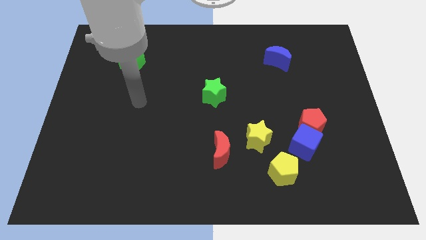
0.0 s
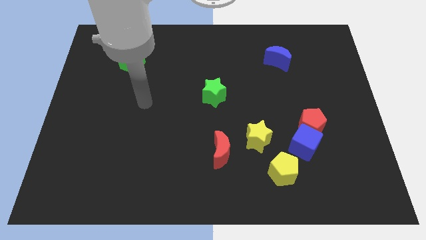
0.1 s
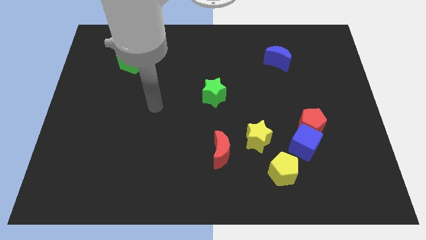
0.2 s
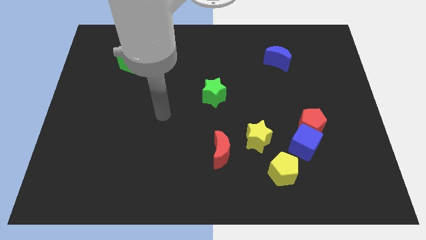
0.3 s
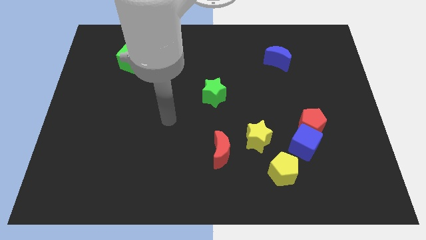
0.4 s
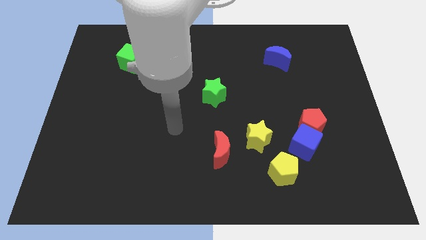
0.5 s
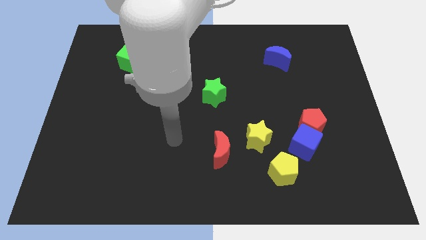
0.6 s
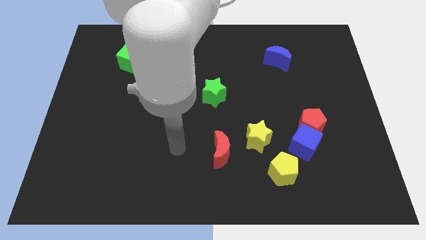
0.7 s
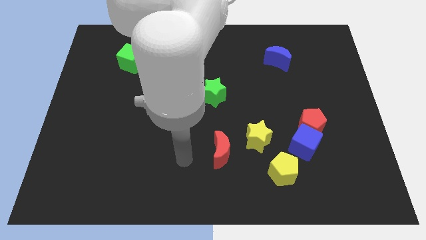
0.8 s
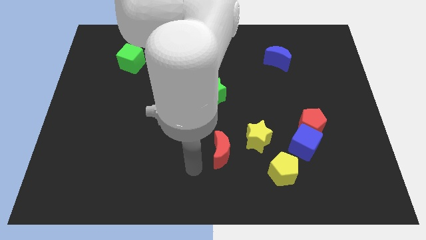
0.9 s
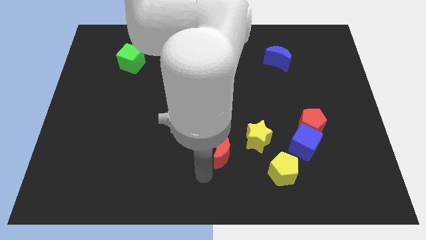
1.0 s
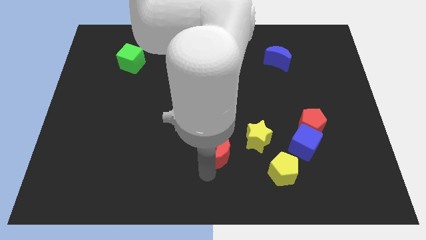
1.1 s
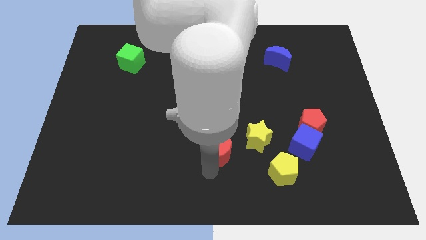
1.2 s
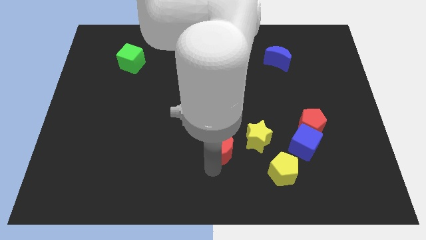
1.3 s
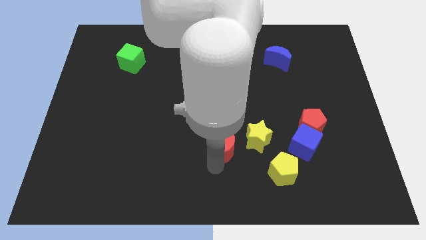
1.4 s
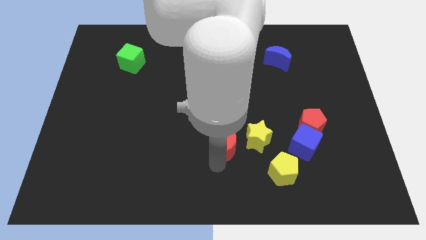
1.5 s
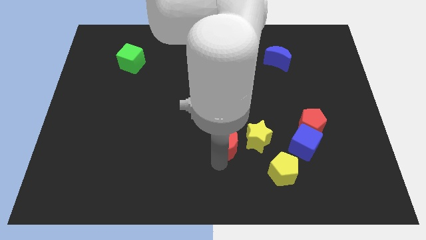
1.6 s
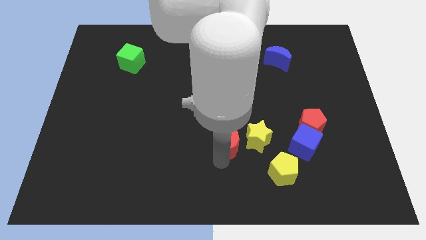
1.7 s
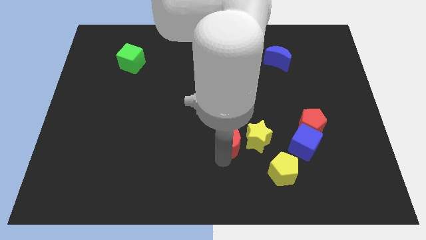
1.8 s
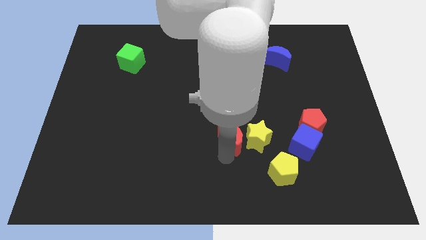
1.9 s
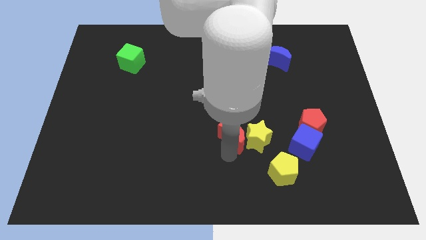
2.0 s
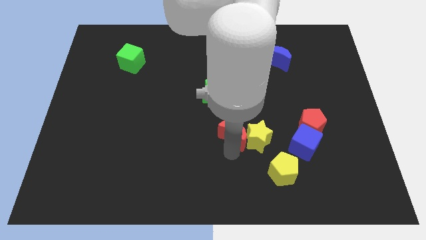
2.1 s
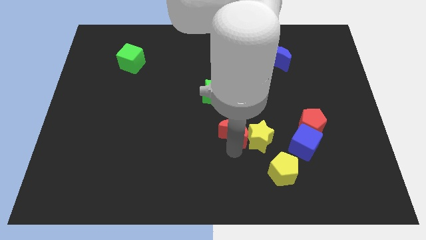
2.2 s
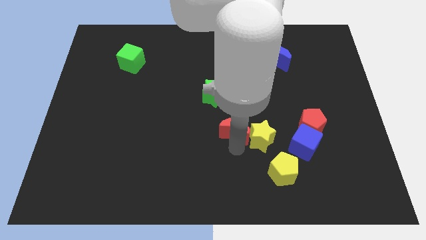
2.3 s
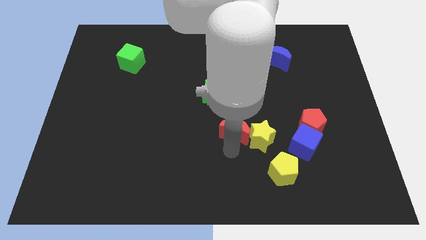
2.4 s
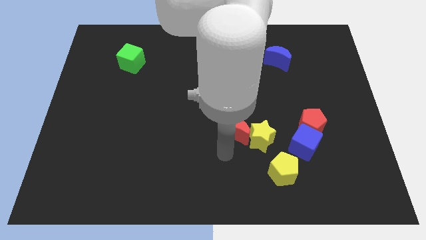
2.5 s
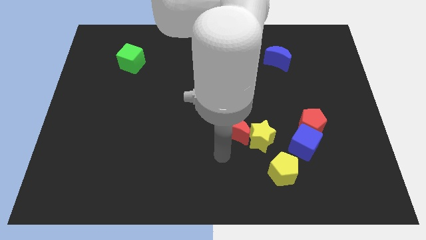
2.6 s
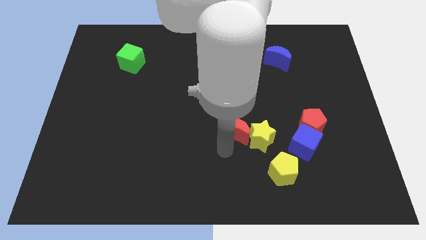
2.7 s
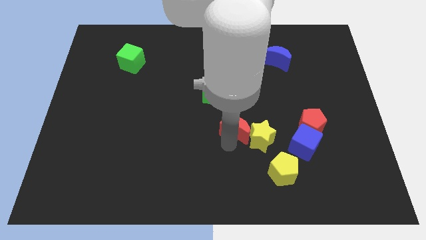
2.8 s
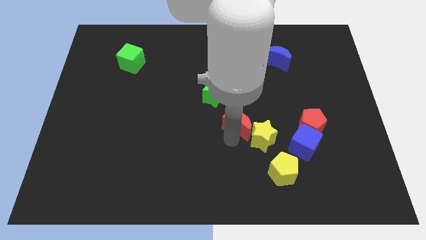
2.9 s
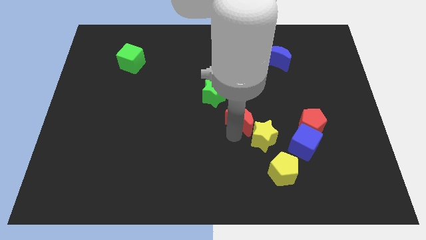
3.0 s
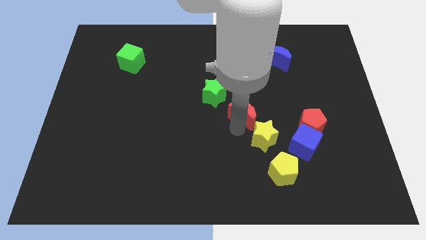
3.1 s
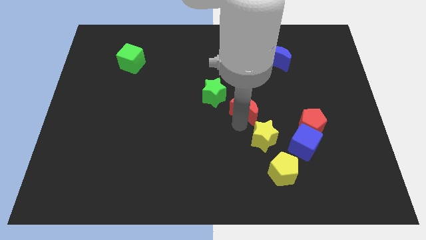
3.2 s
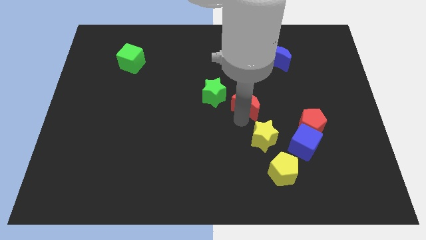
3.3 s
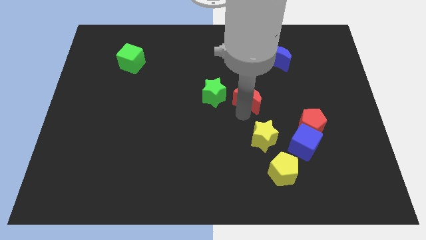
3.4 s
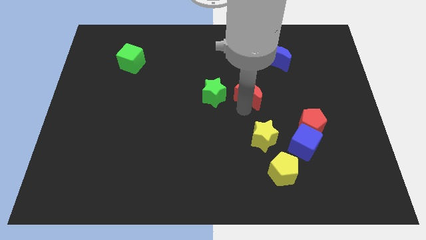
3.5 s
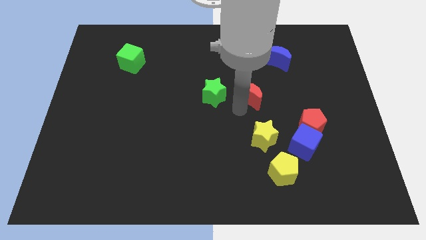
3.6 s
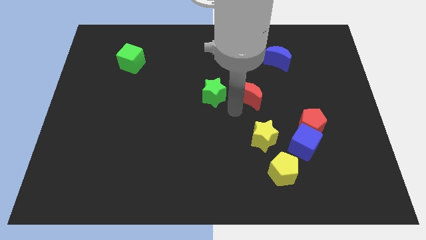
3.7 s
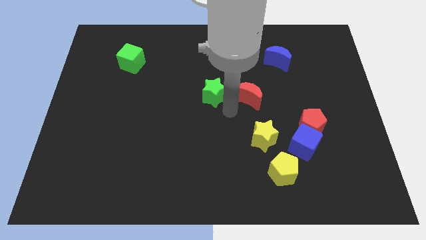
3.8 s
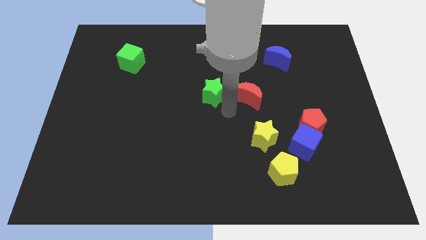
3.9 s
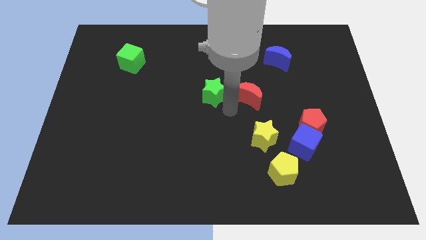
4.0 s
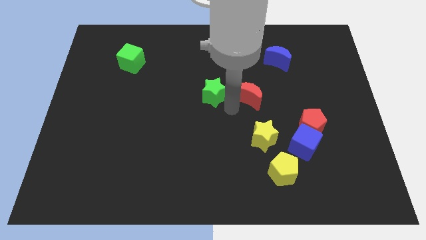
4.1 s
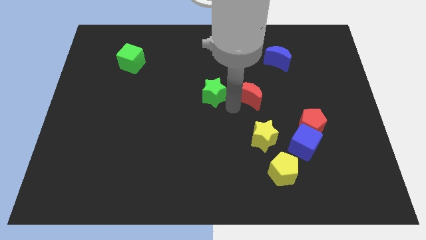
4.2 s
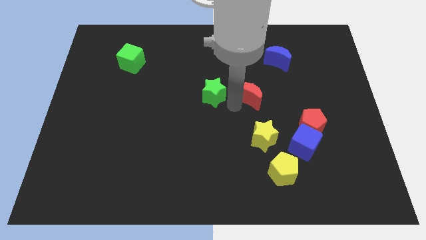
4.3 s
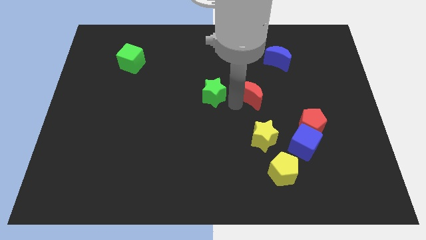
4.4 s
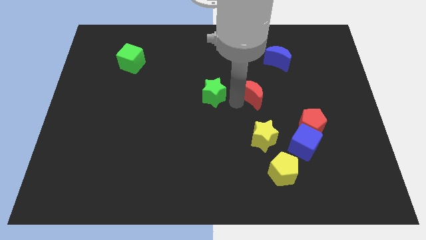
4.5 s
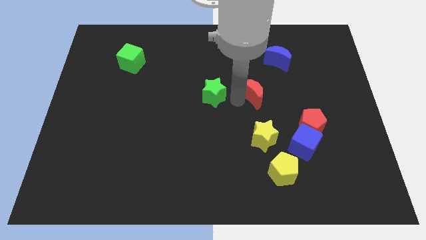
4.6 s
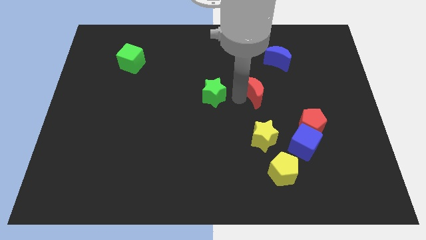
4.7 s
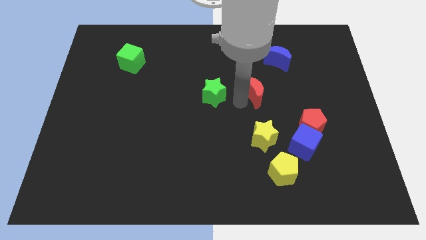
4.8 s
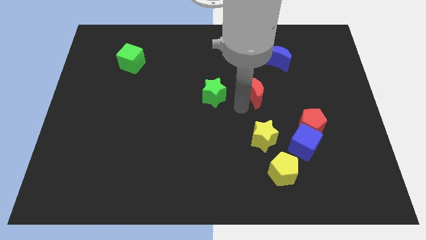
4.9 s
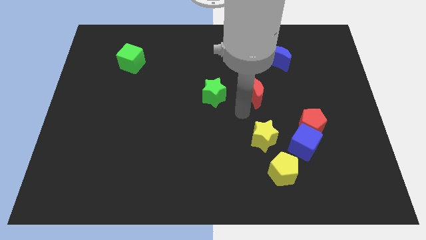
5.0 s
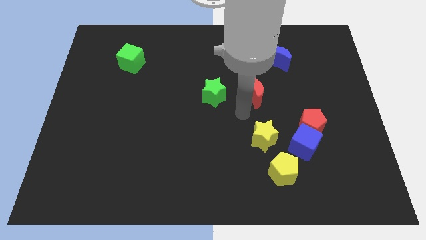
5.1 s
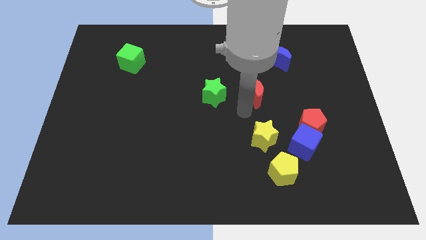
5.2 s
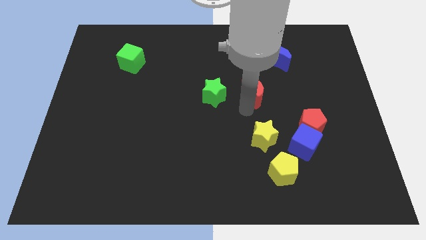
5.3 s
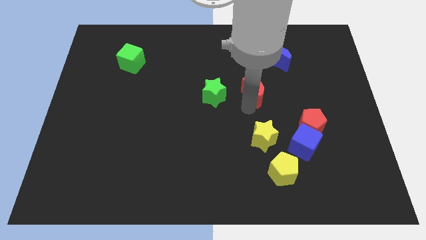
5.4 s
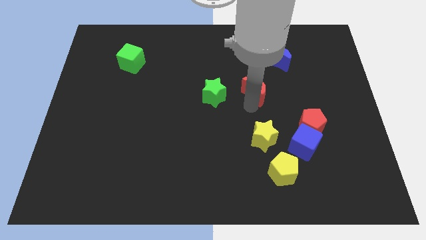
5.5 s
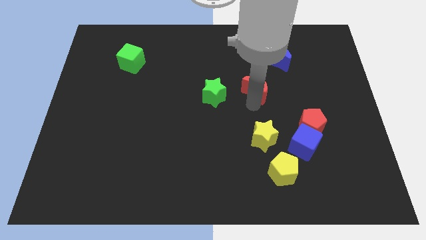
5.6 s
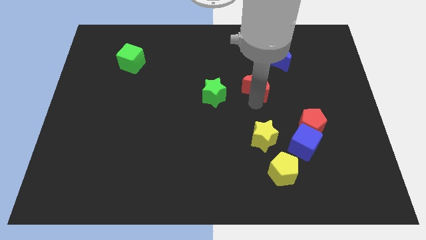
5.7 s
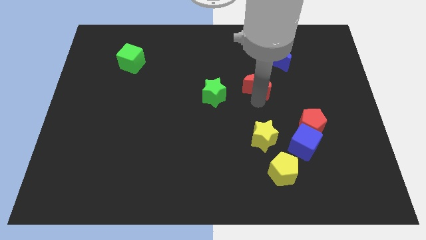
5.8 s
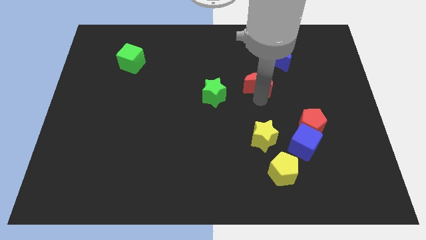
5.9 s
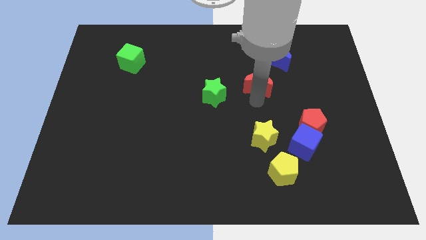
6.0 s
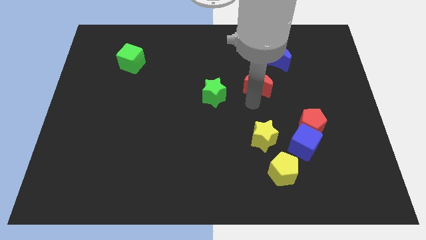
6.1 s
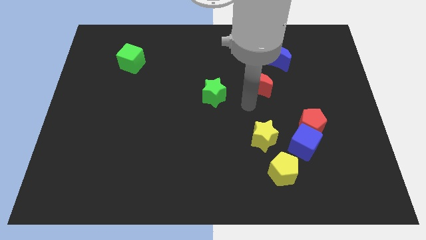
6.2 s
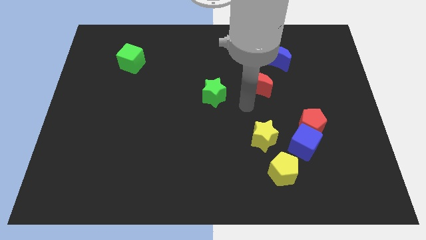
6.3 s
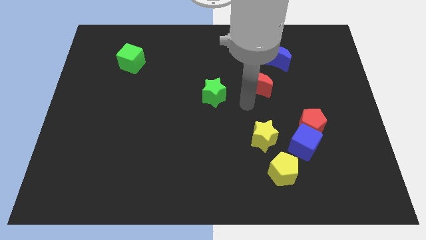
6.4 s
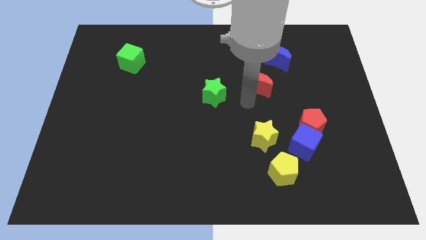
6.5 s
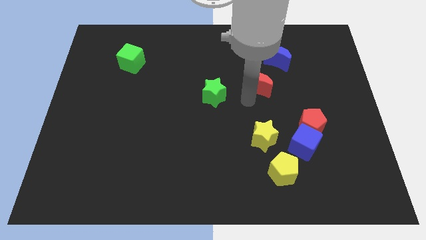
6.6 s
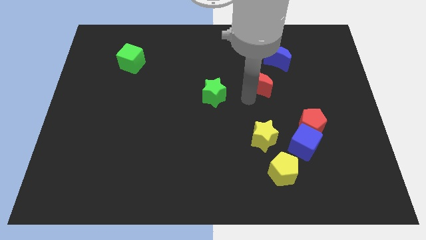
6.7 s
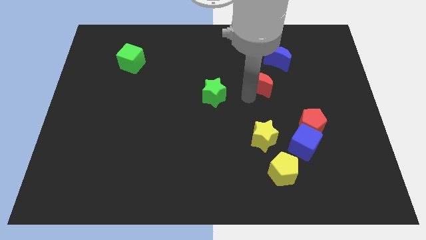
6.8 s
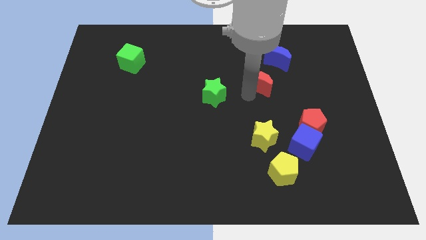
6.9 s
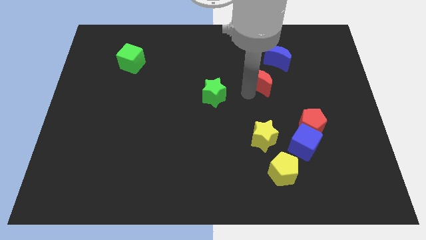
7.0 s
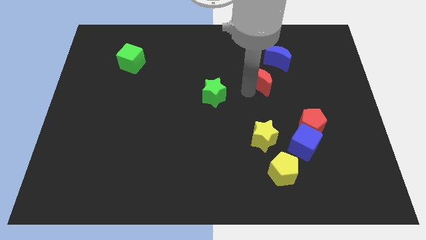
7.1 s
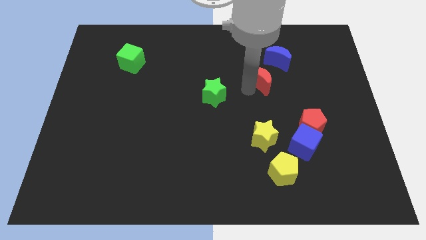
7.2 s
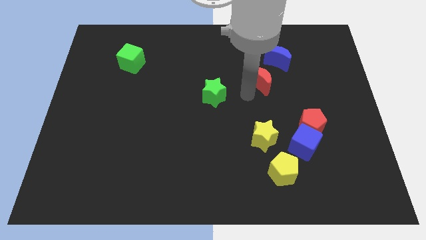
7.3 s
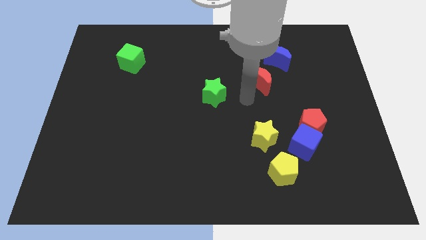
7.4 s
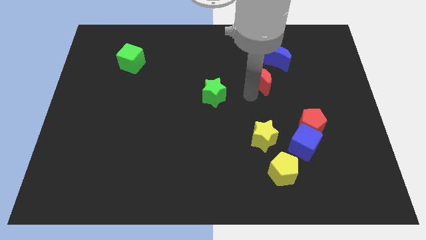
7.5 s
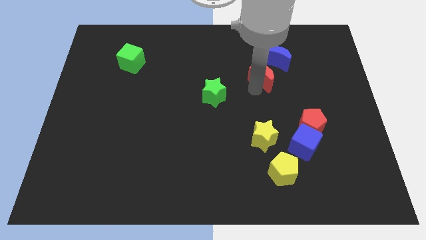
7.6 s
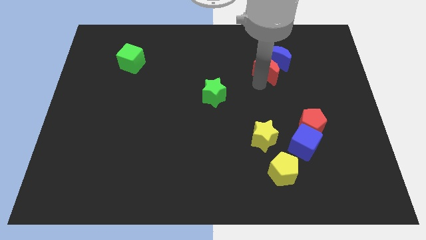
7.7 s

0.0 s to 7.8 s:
put the red moon next to the blue moon
